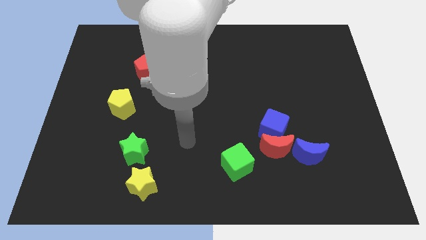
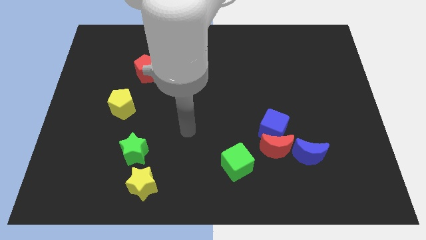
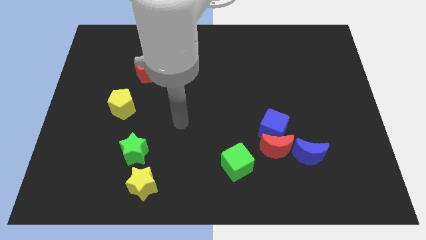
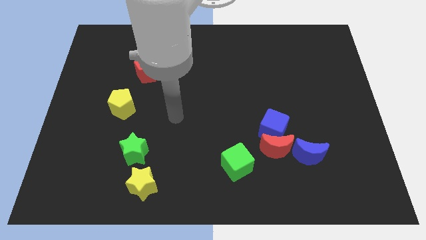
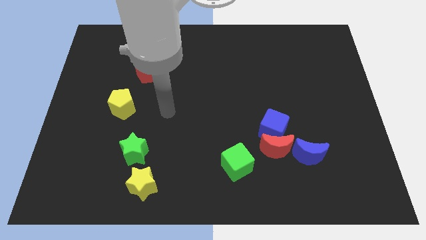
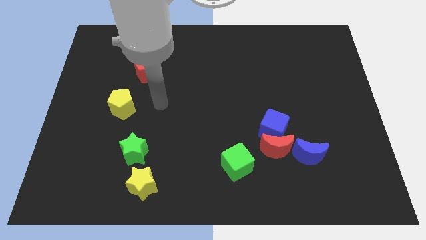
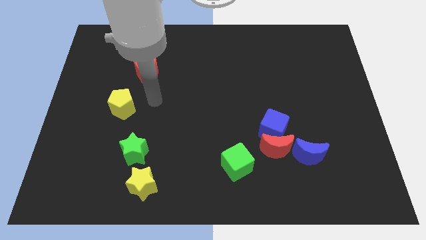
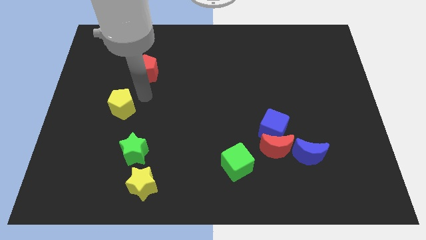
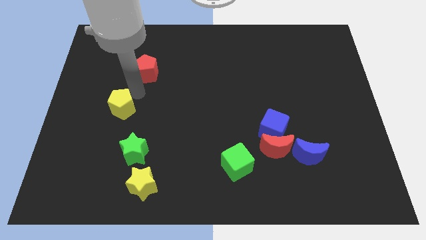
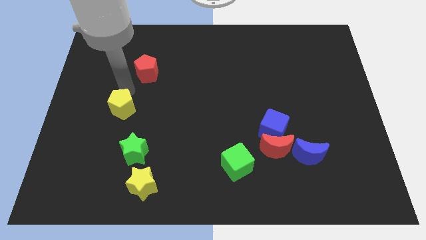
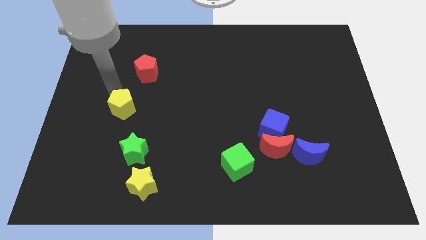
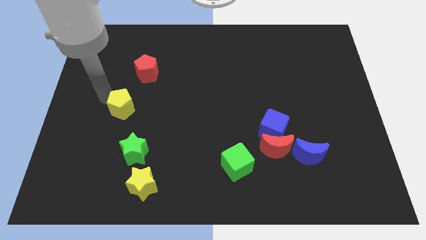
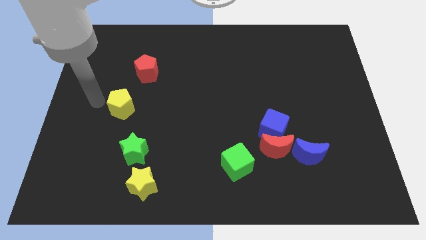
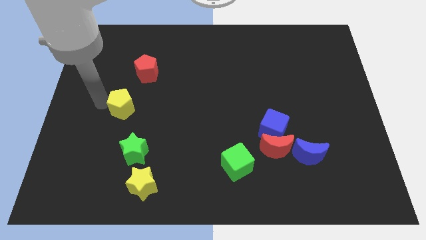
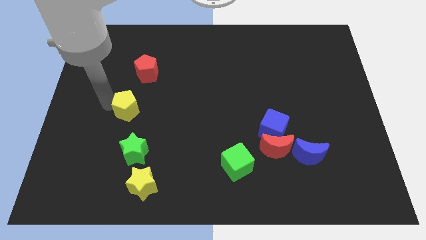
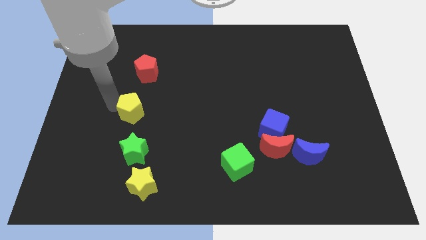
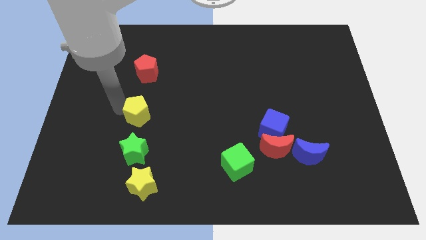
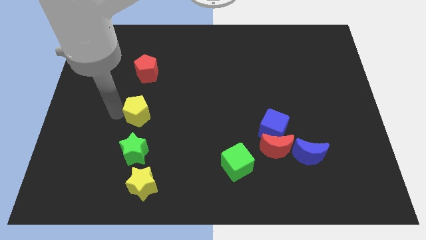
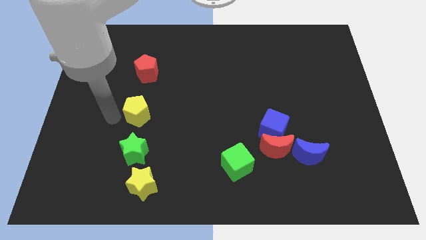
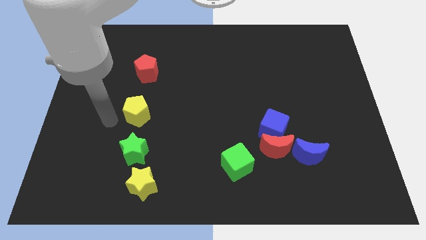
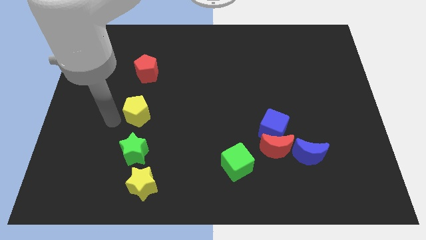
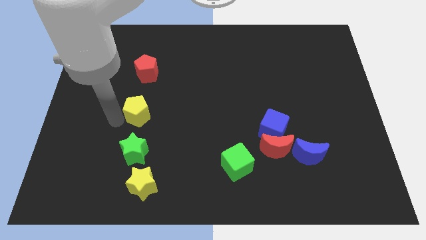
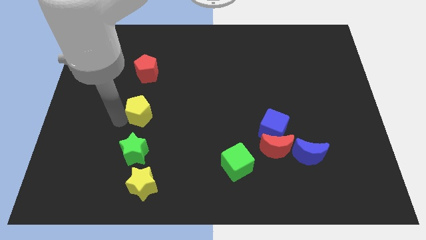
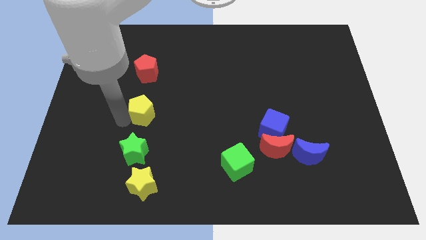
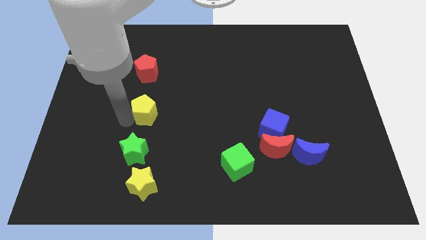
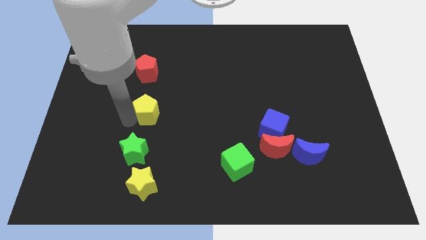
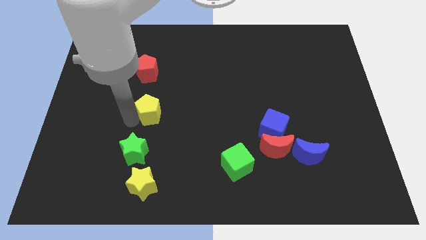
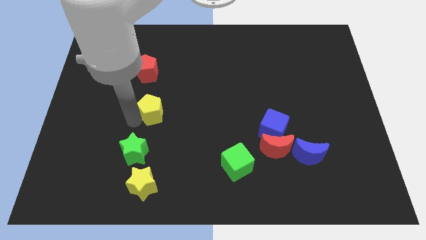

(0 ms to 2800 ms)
push the yellow pentagon to the right somewhat

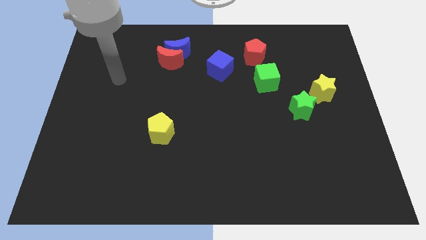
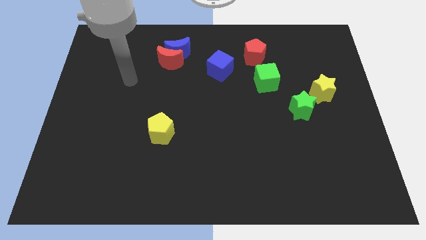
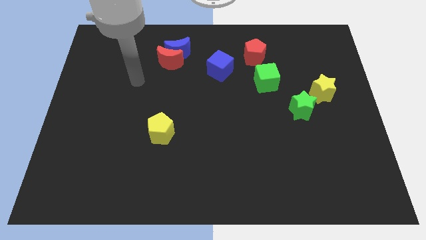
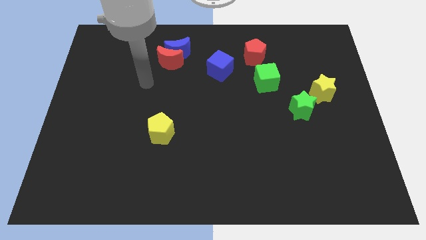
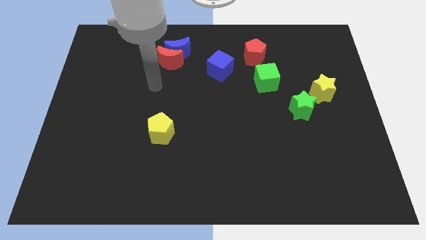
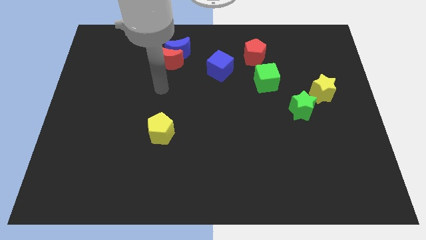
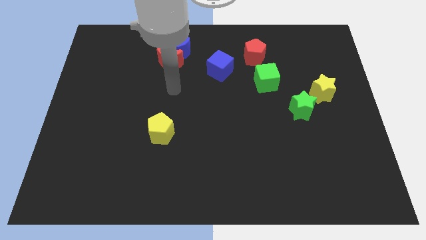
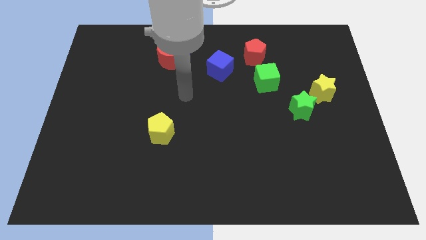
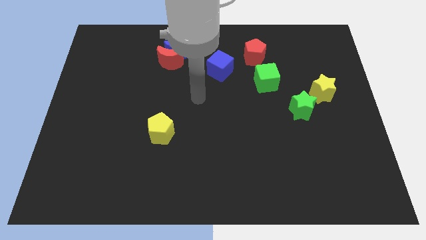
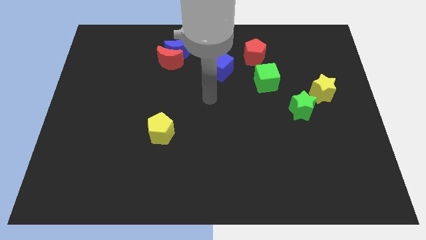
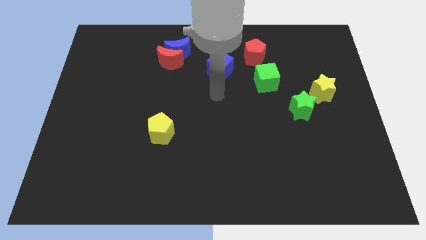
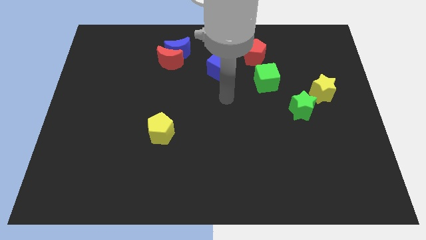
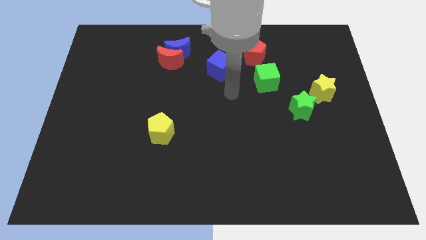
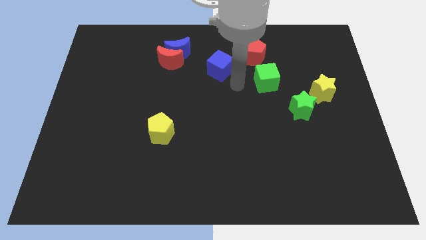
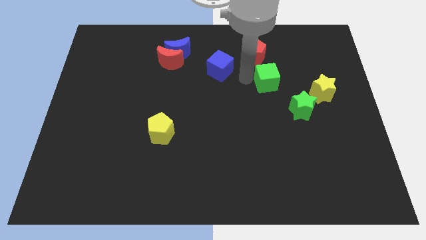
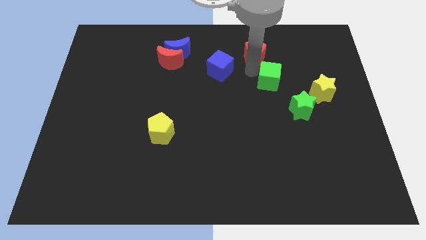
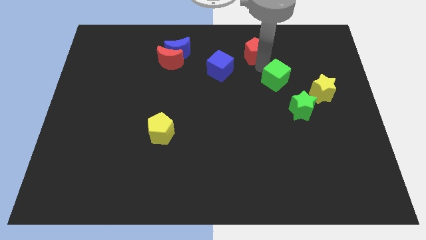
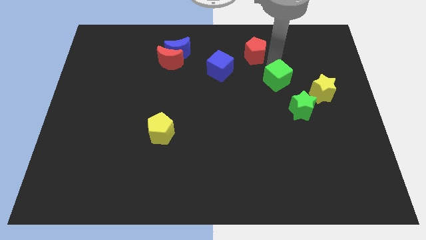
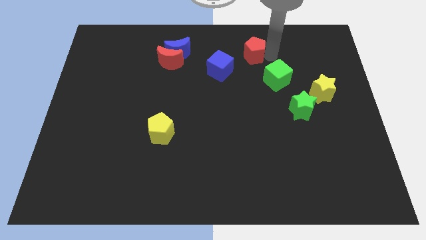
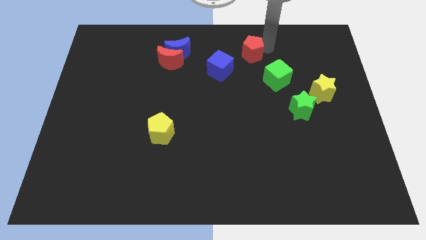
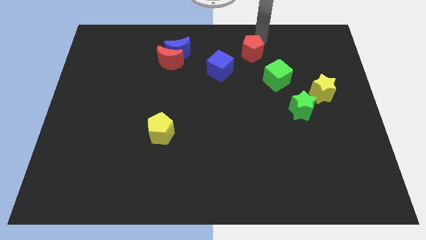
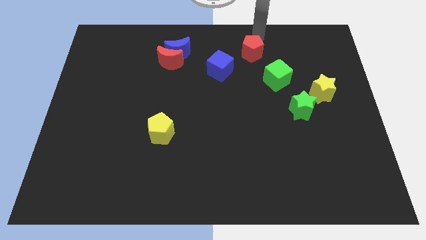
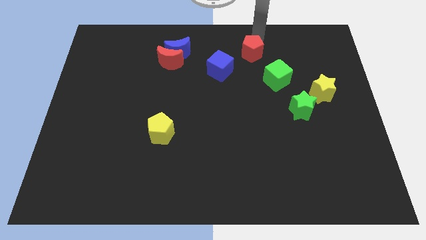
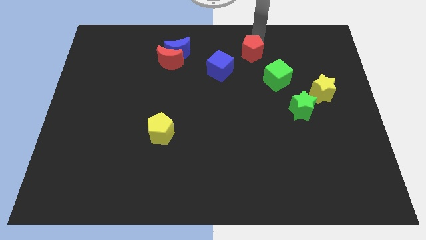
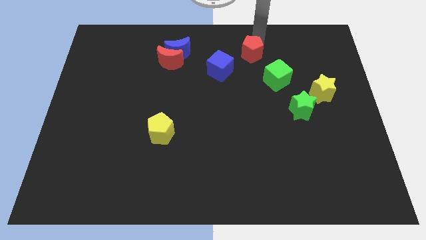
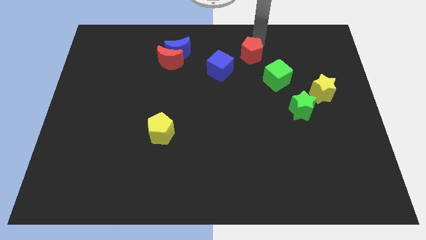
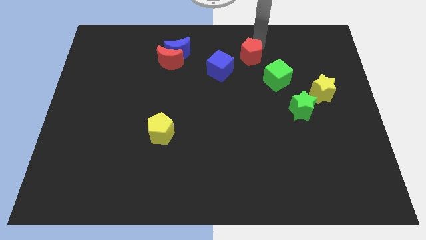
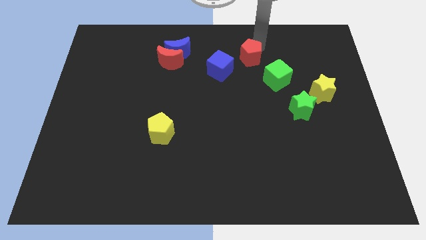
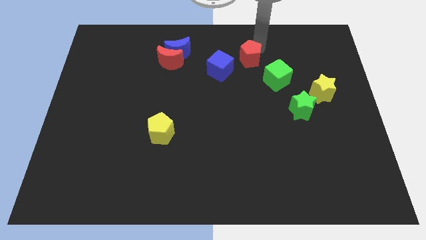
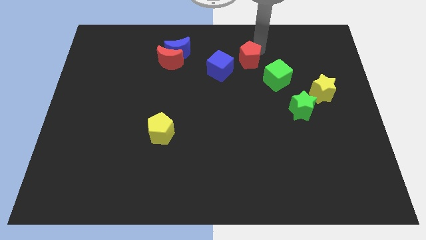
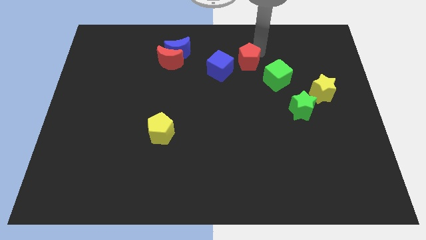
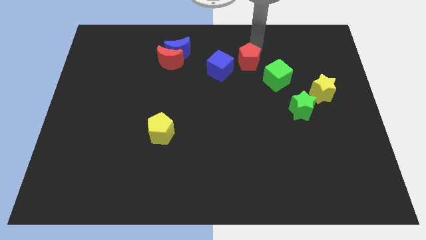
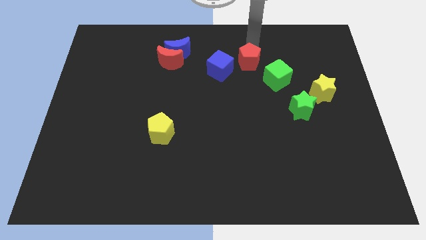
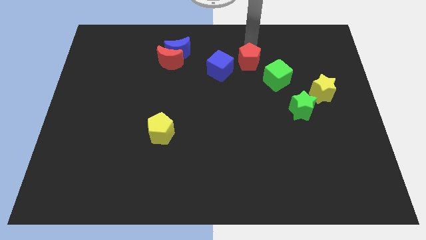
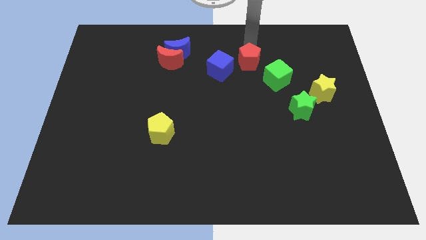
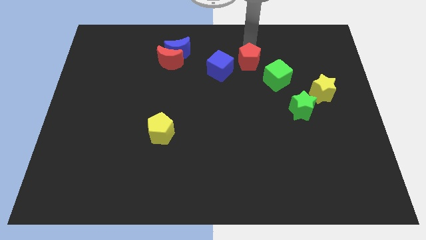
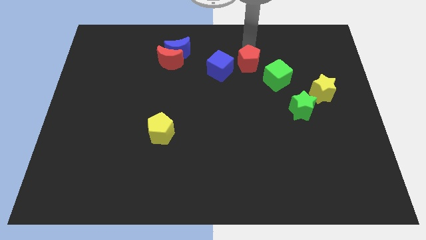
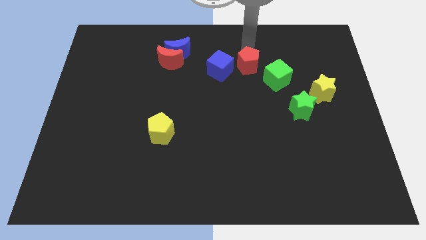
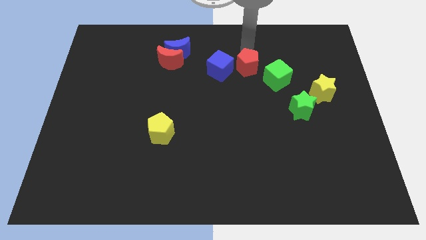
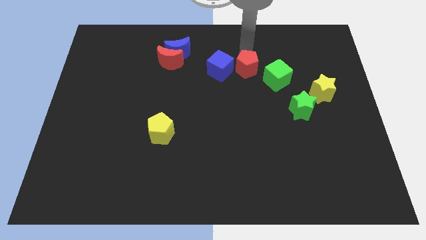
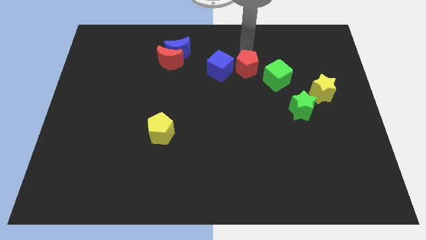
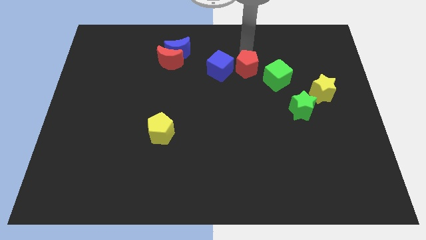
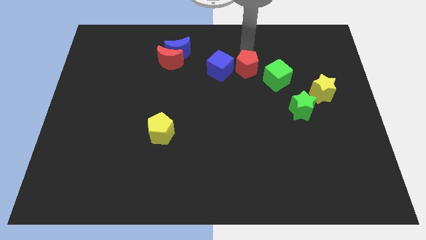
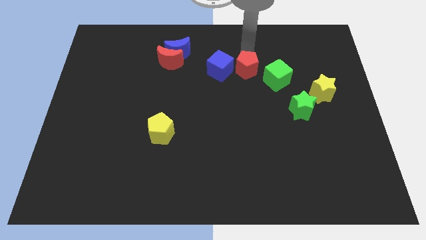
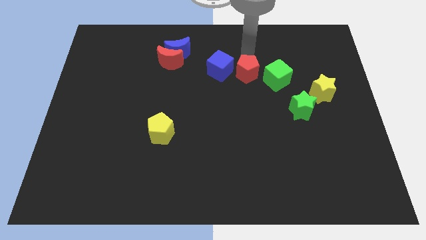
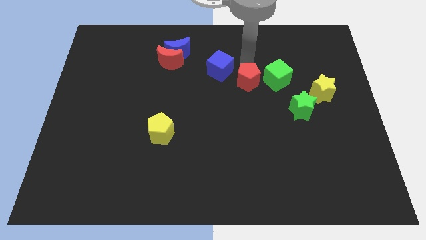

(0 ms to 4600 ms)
push the red pentagon somewhat downwards

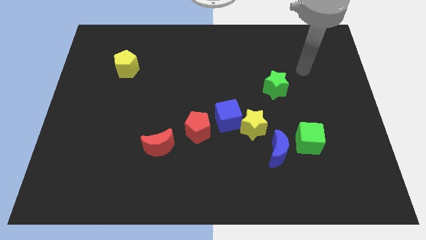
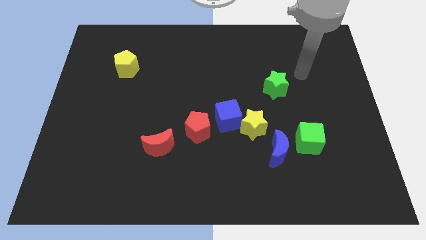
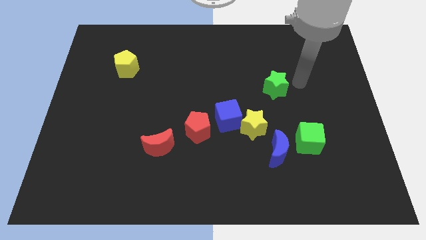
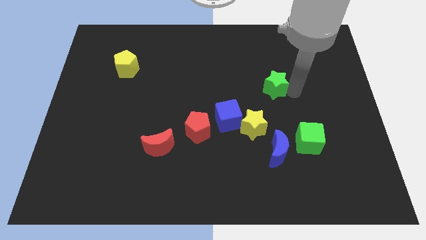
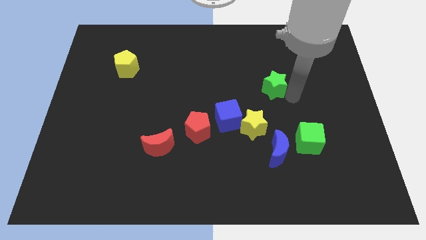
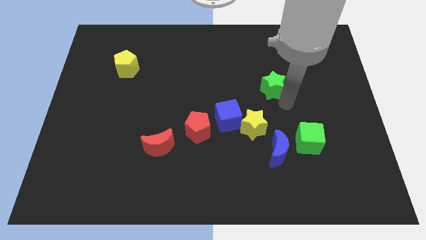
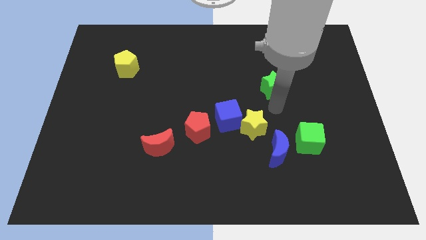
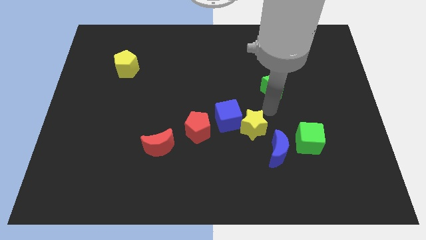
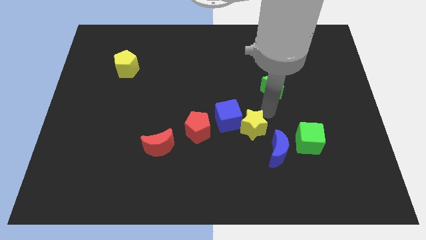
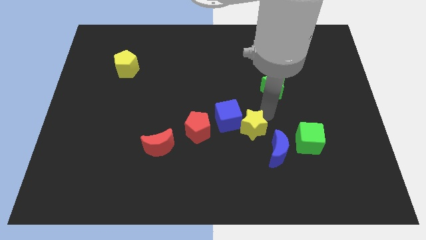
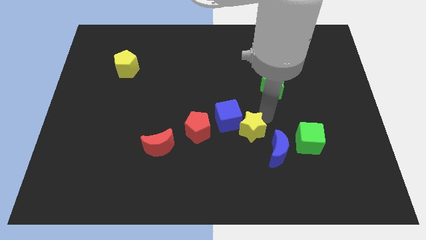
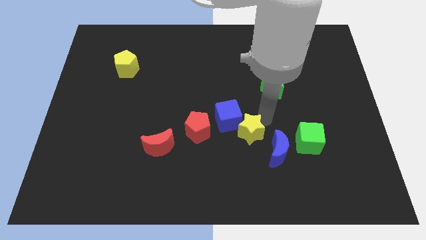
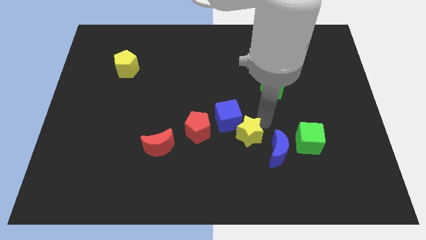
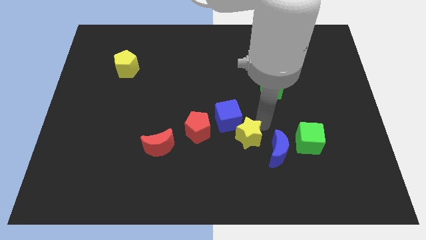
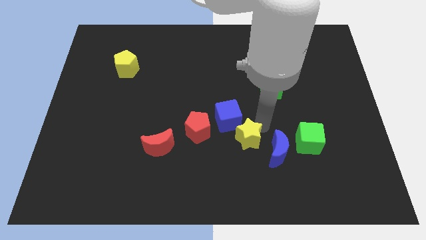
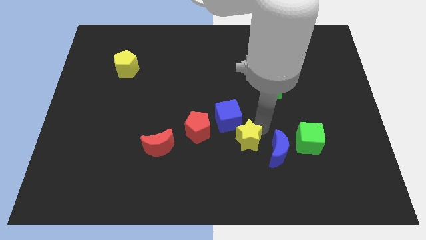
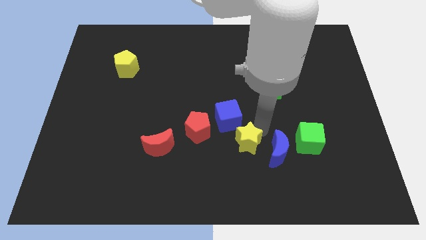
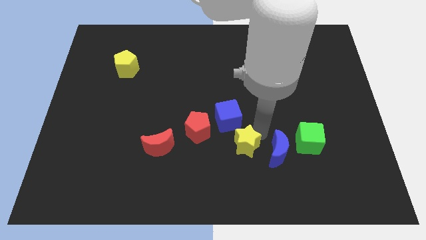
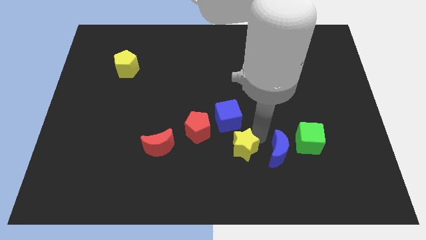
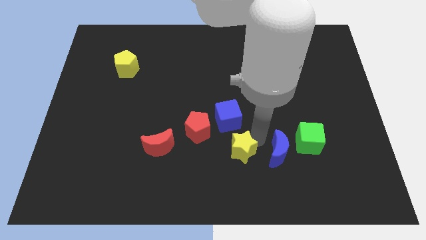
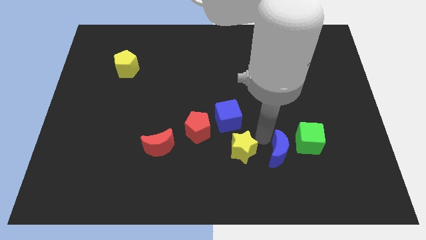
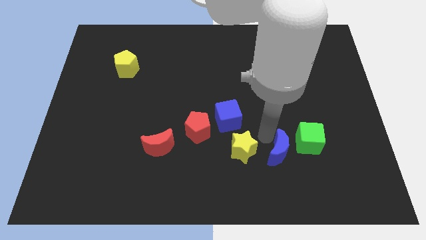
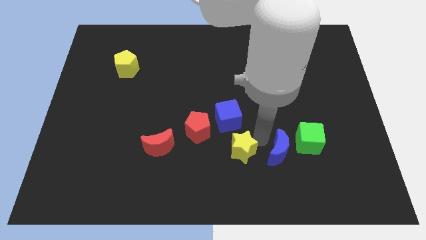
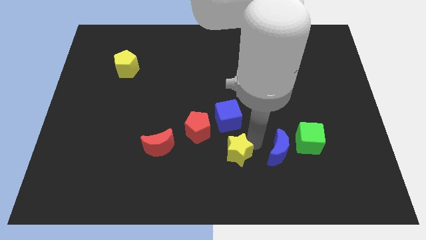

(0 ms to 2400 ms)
slide the yellow star downwards and to the left diagonally somewhat
